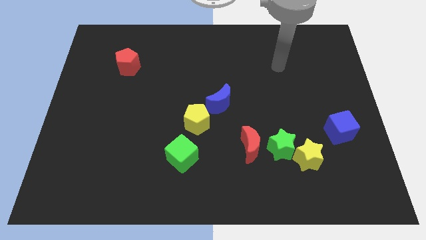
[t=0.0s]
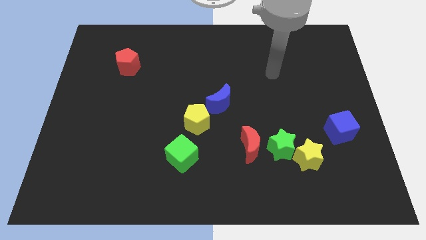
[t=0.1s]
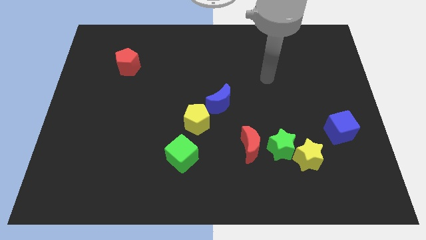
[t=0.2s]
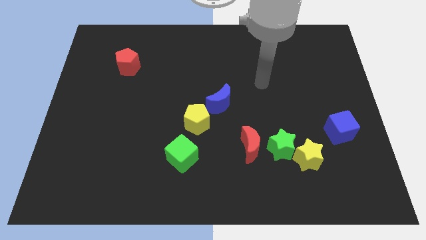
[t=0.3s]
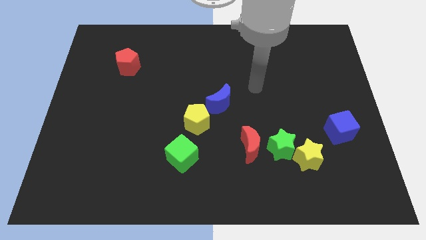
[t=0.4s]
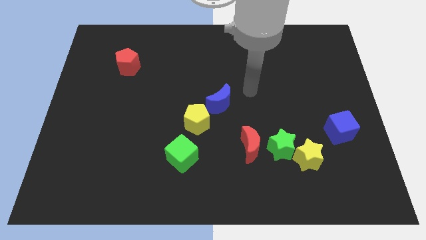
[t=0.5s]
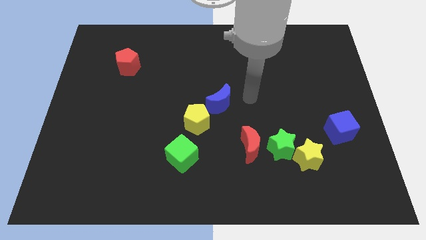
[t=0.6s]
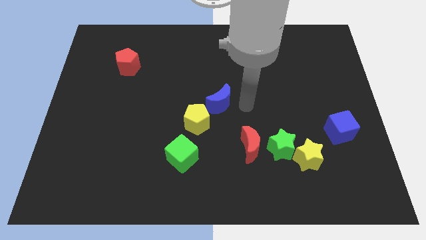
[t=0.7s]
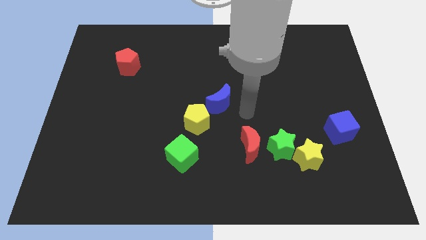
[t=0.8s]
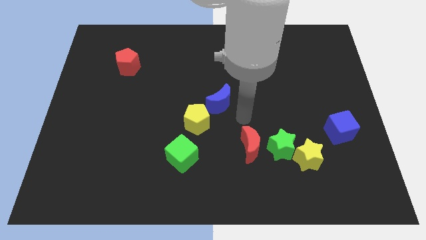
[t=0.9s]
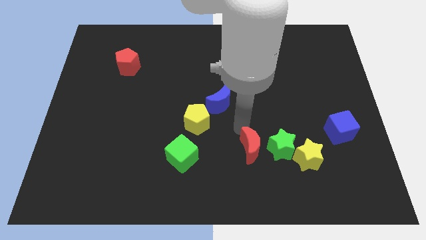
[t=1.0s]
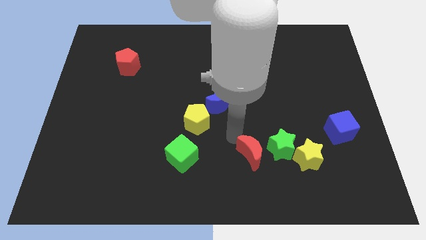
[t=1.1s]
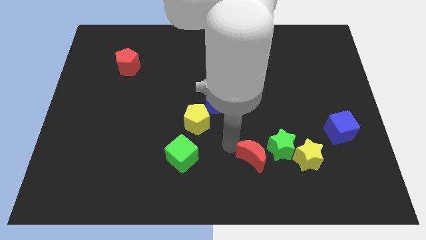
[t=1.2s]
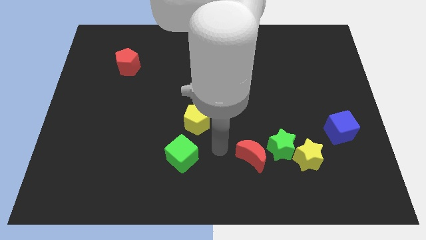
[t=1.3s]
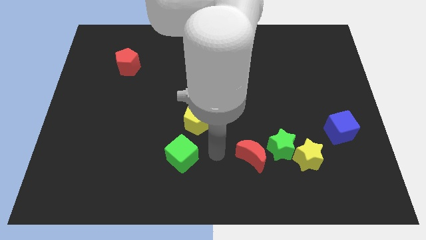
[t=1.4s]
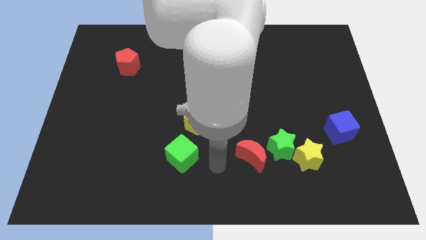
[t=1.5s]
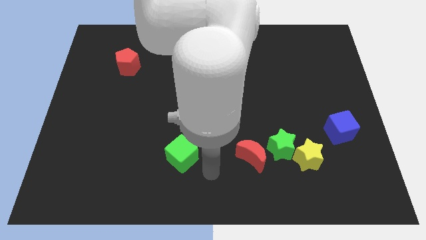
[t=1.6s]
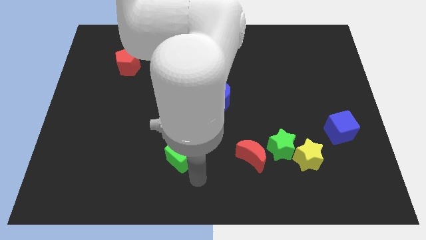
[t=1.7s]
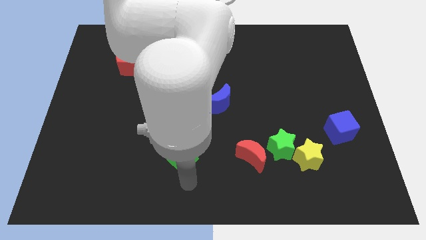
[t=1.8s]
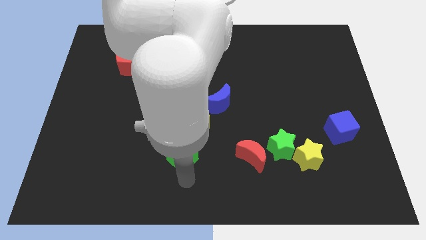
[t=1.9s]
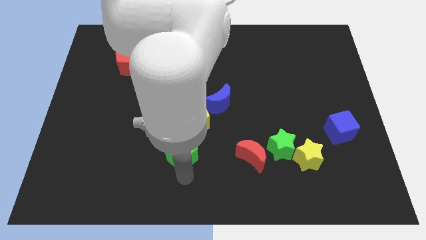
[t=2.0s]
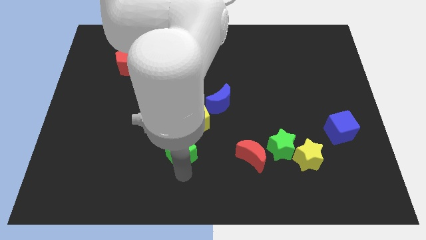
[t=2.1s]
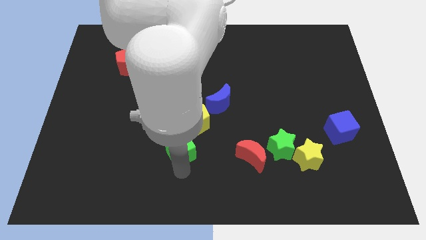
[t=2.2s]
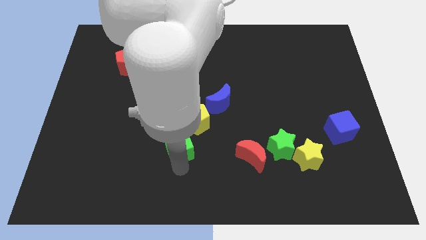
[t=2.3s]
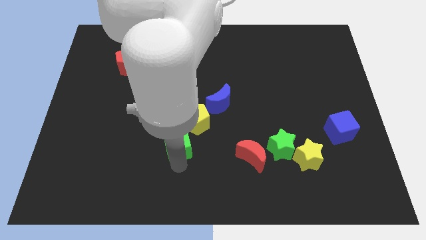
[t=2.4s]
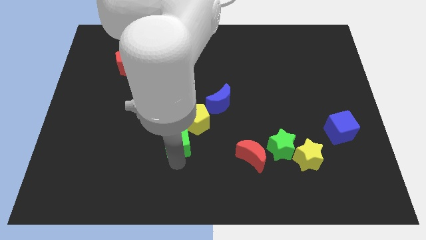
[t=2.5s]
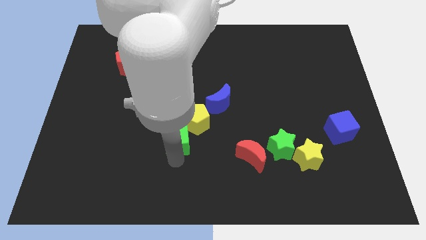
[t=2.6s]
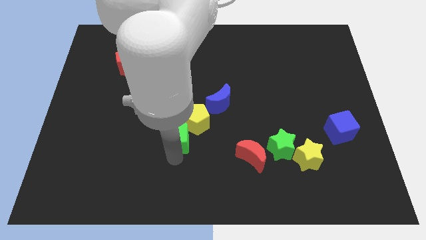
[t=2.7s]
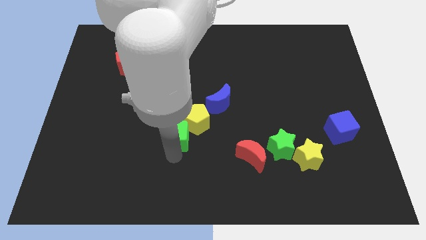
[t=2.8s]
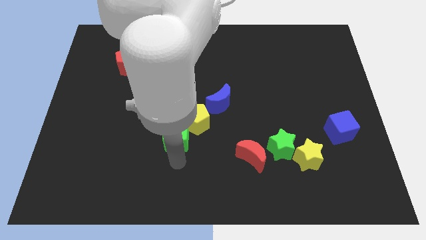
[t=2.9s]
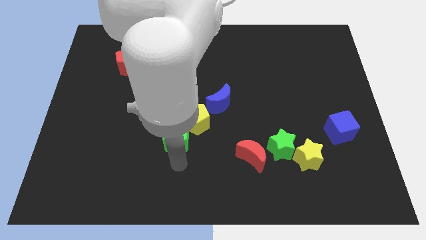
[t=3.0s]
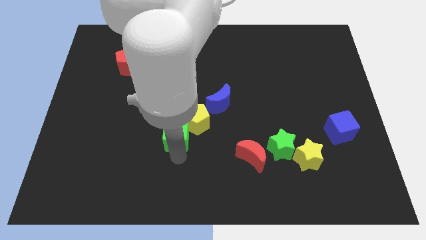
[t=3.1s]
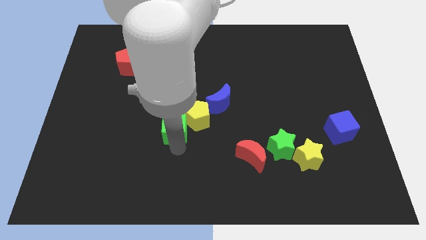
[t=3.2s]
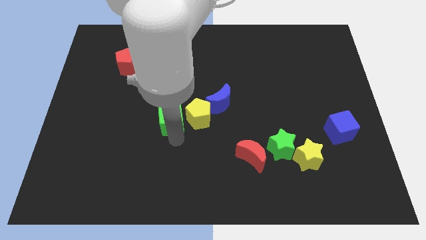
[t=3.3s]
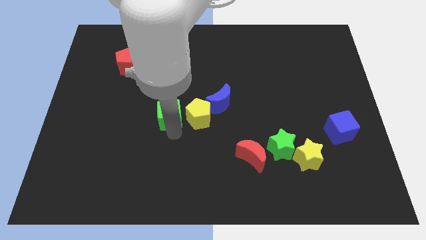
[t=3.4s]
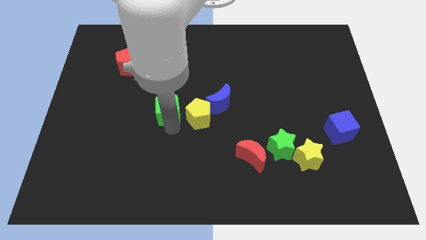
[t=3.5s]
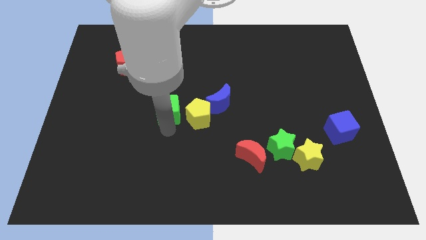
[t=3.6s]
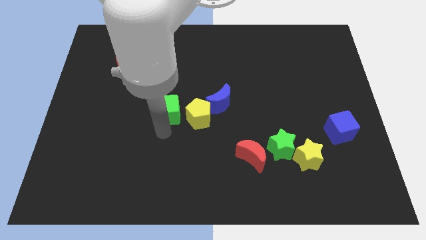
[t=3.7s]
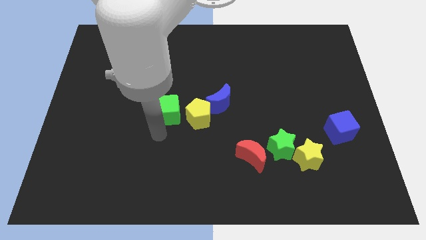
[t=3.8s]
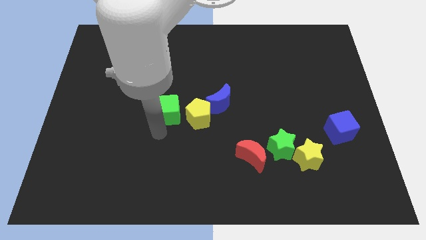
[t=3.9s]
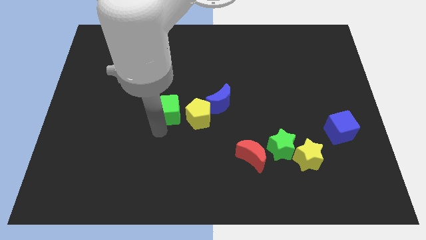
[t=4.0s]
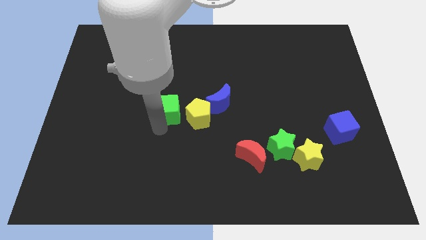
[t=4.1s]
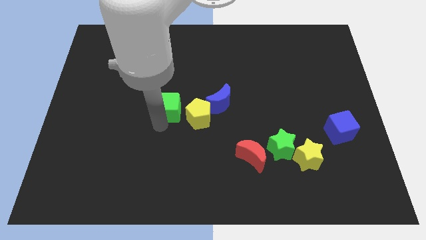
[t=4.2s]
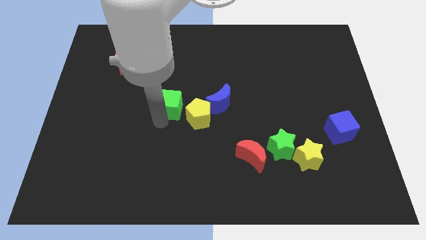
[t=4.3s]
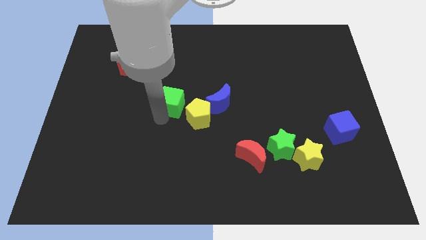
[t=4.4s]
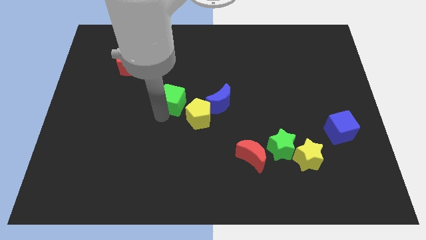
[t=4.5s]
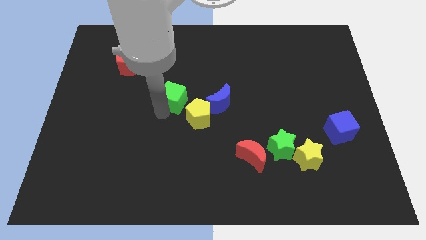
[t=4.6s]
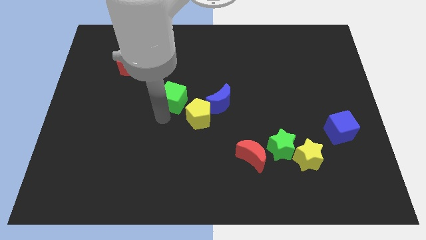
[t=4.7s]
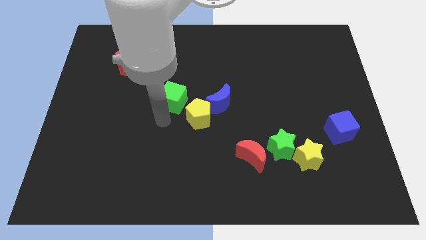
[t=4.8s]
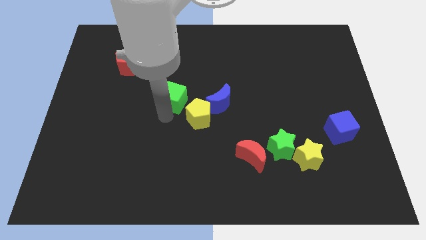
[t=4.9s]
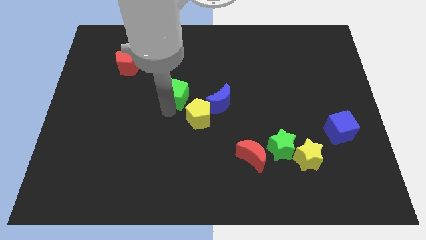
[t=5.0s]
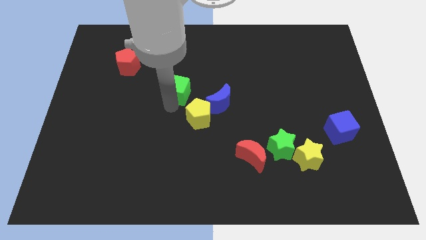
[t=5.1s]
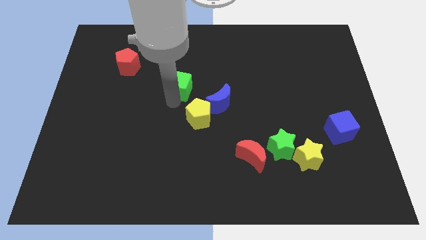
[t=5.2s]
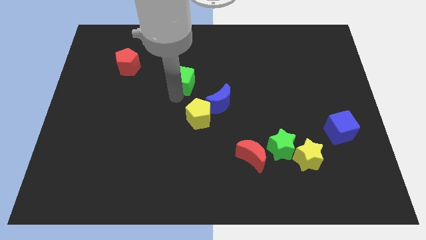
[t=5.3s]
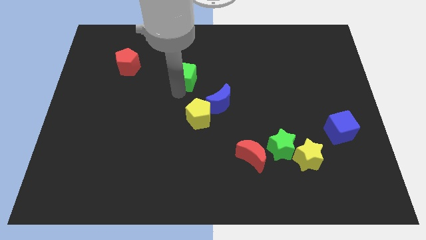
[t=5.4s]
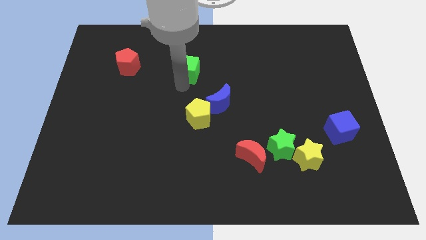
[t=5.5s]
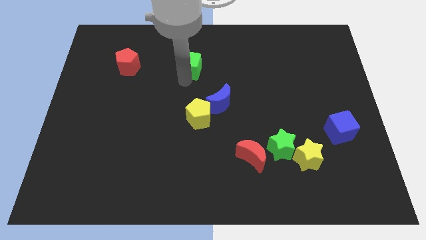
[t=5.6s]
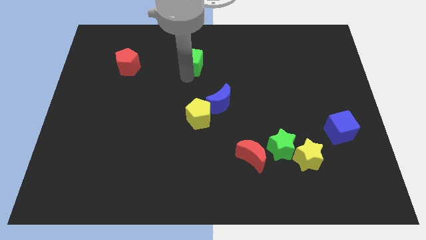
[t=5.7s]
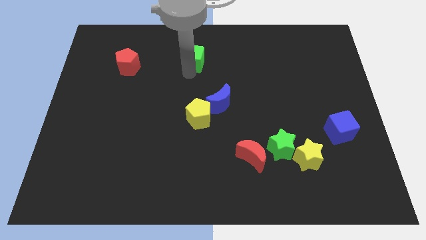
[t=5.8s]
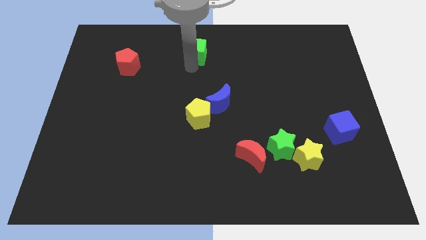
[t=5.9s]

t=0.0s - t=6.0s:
move the green cube to the top side

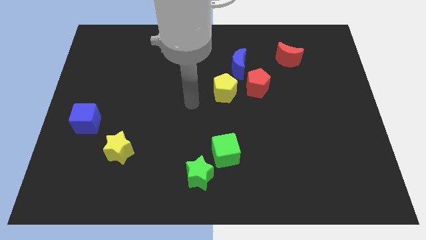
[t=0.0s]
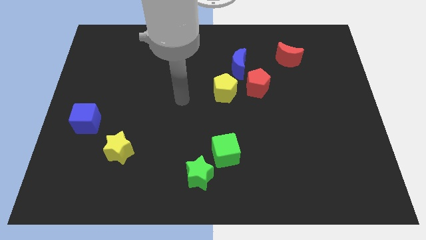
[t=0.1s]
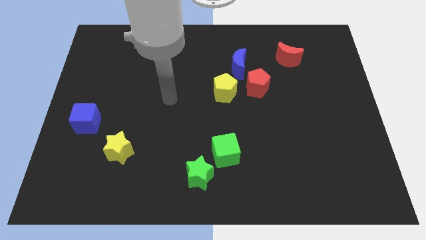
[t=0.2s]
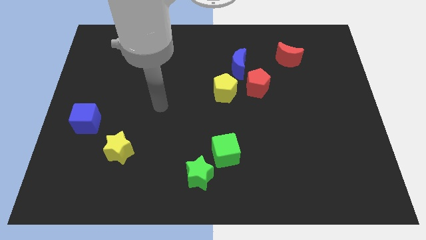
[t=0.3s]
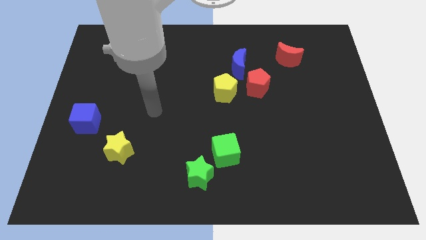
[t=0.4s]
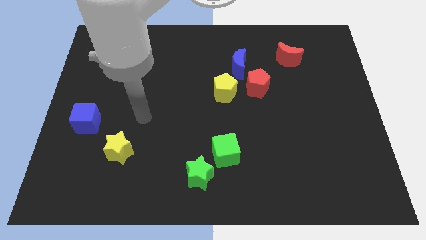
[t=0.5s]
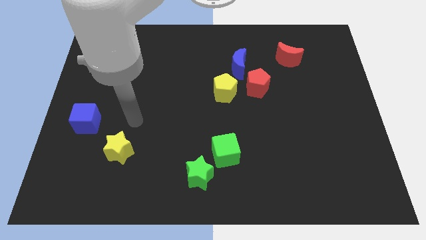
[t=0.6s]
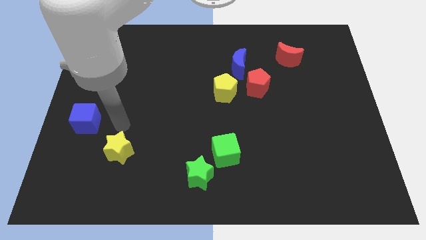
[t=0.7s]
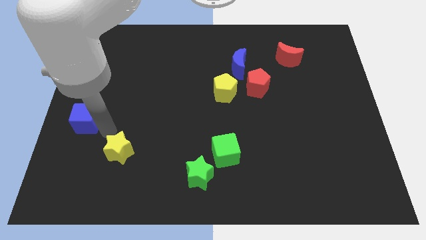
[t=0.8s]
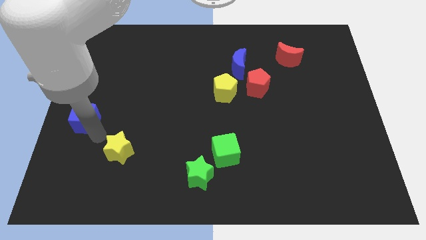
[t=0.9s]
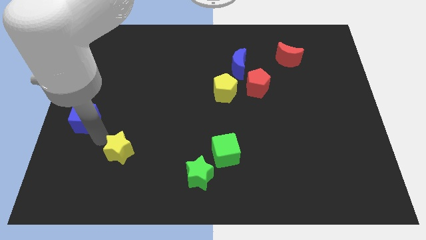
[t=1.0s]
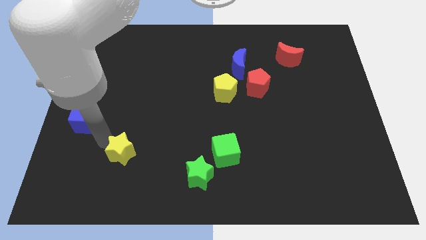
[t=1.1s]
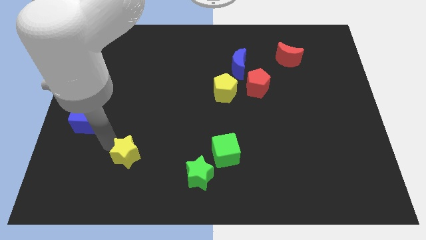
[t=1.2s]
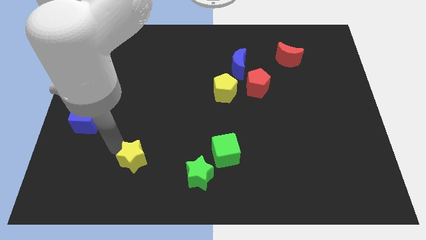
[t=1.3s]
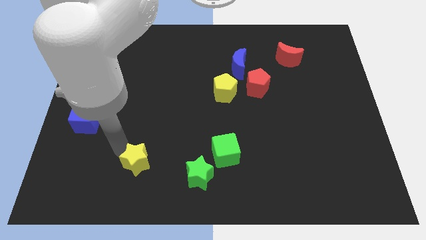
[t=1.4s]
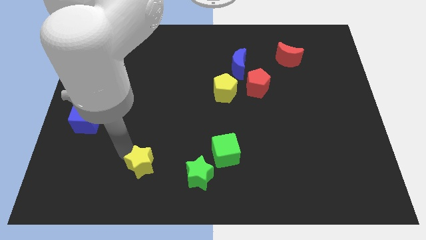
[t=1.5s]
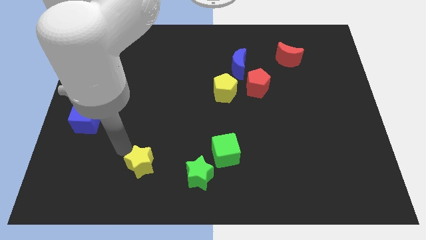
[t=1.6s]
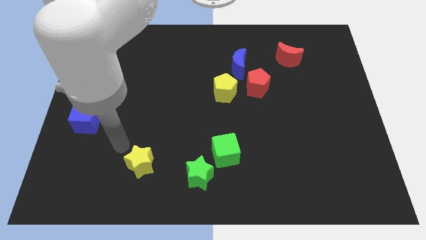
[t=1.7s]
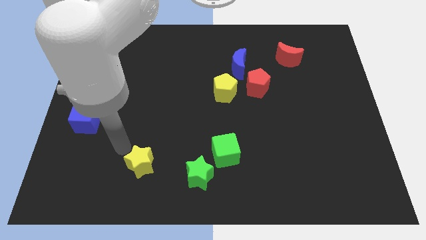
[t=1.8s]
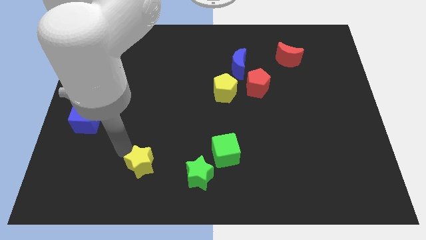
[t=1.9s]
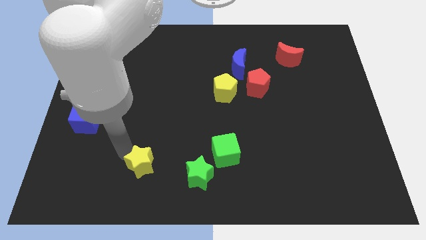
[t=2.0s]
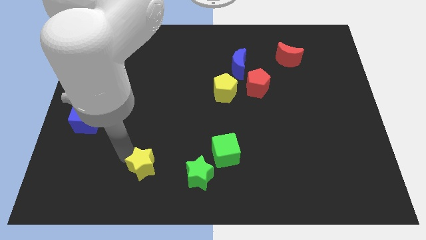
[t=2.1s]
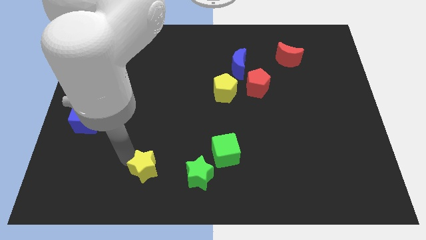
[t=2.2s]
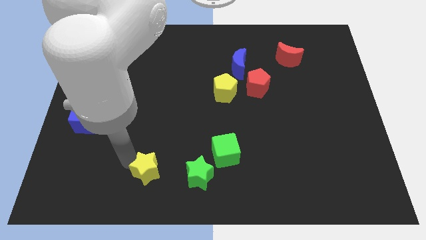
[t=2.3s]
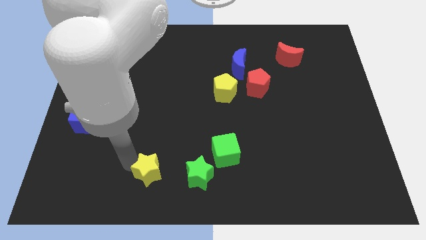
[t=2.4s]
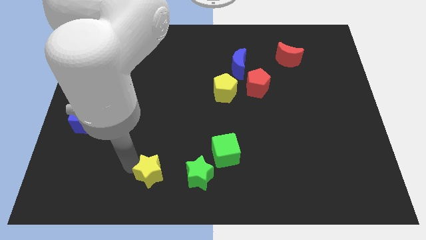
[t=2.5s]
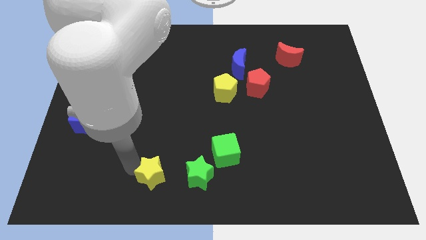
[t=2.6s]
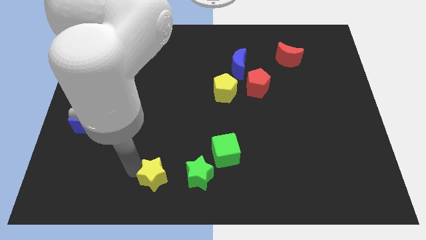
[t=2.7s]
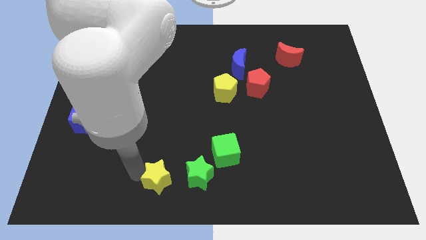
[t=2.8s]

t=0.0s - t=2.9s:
push the yellow star to the bottom side
